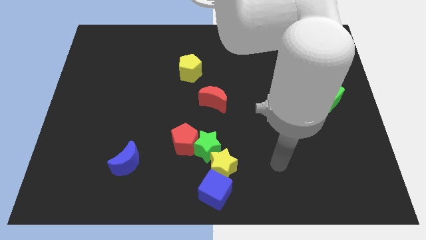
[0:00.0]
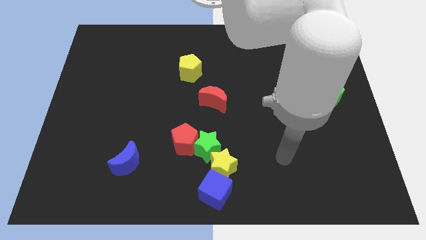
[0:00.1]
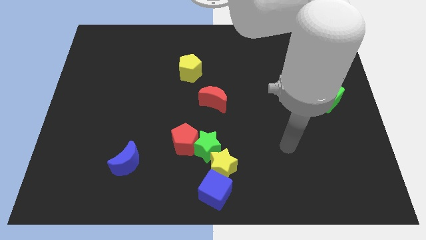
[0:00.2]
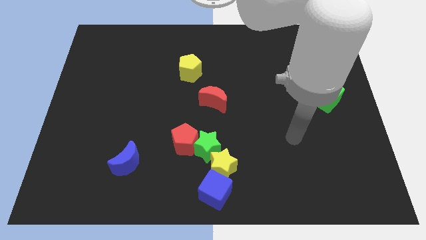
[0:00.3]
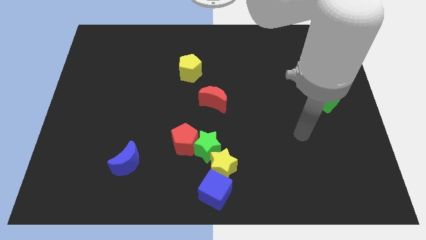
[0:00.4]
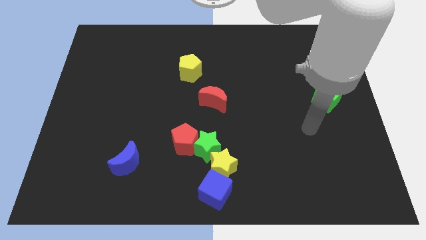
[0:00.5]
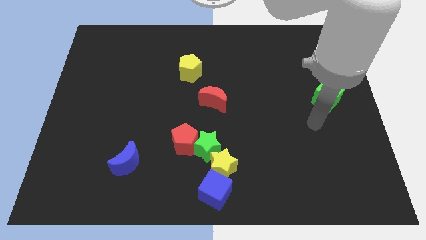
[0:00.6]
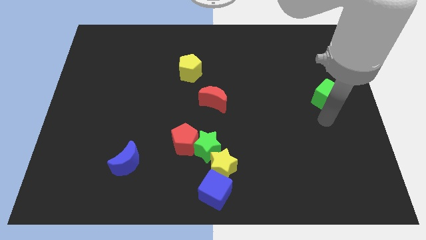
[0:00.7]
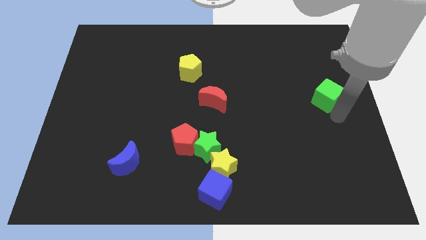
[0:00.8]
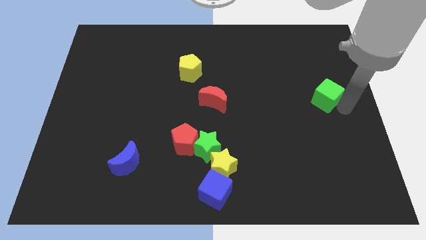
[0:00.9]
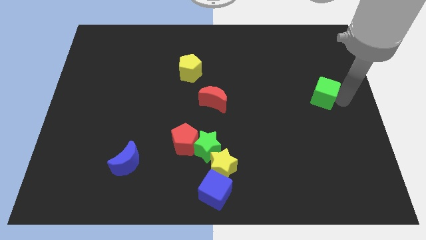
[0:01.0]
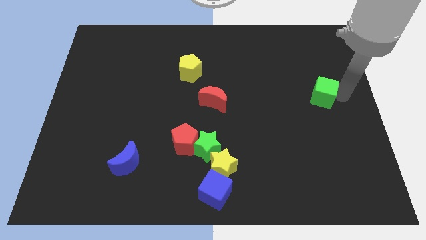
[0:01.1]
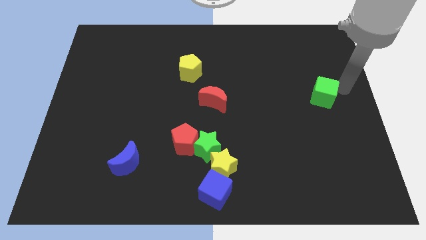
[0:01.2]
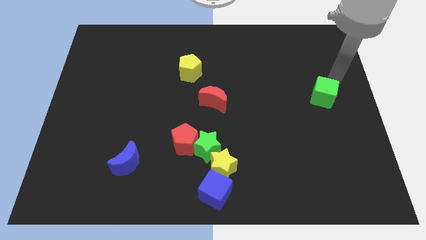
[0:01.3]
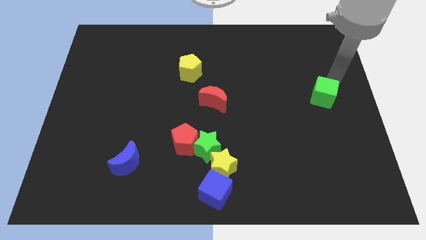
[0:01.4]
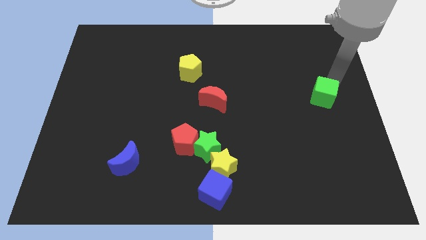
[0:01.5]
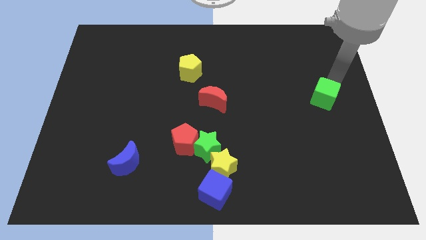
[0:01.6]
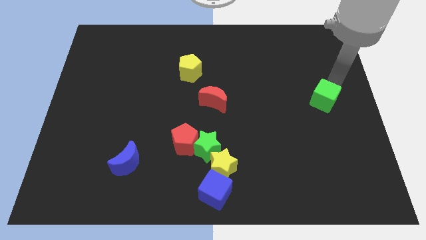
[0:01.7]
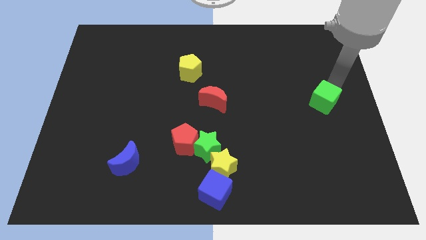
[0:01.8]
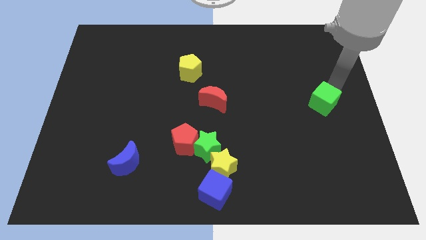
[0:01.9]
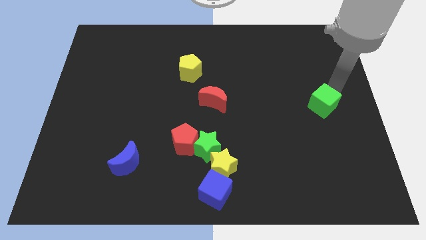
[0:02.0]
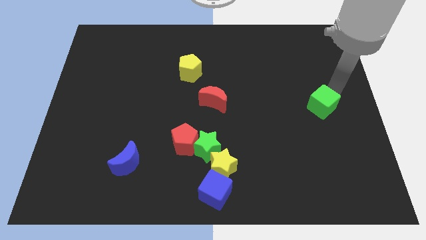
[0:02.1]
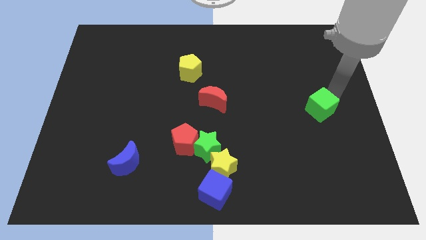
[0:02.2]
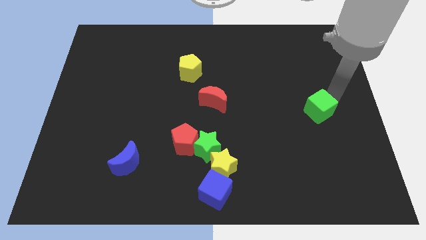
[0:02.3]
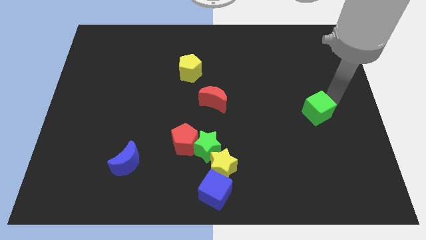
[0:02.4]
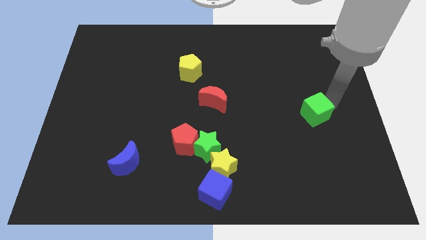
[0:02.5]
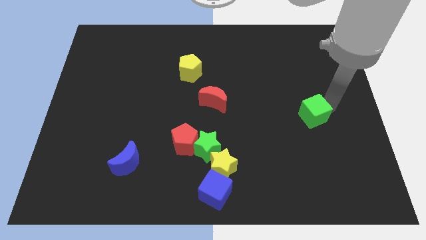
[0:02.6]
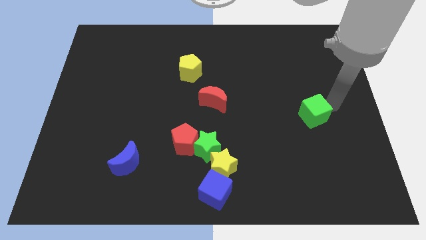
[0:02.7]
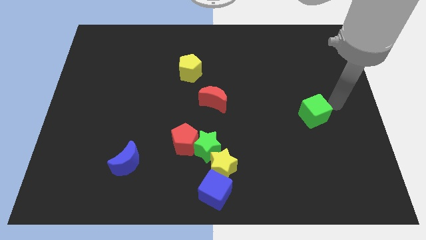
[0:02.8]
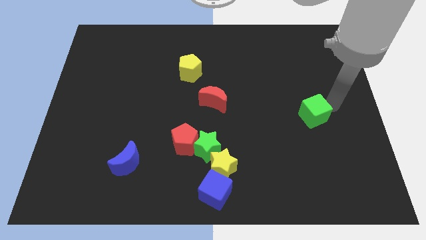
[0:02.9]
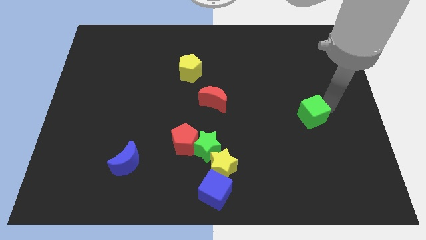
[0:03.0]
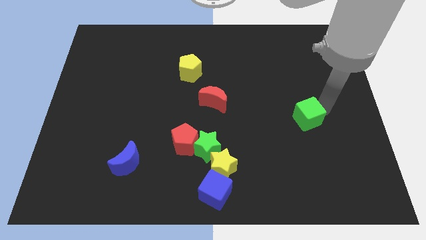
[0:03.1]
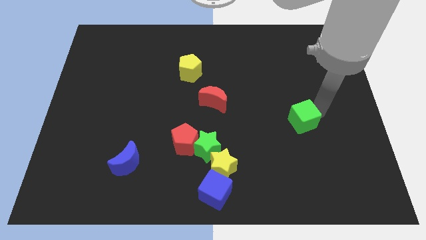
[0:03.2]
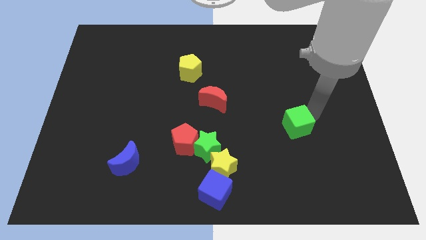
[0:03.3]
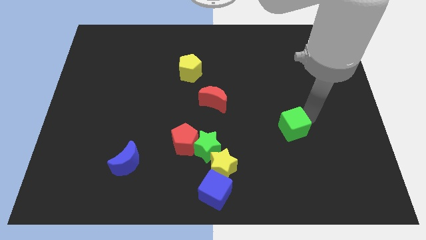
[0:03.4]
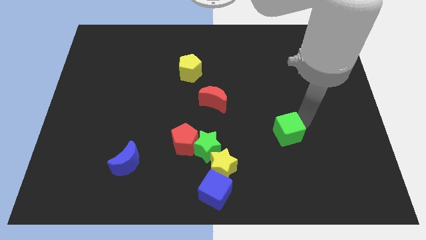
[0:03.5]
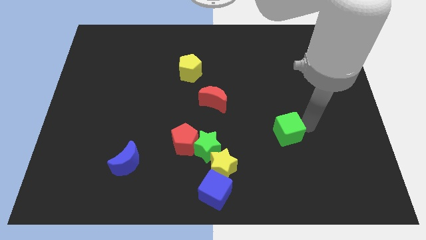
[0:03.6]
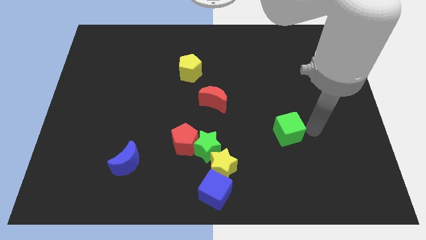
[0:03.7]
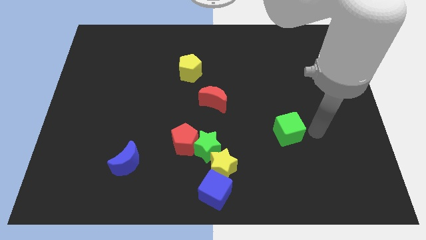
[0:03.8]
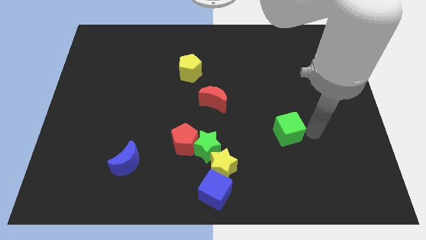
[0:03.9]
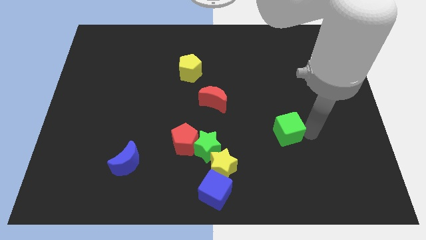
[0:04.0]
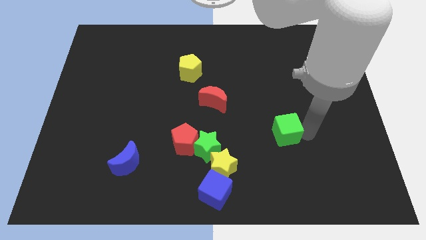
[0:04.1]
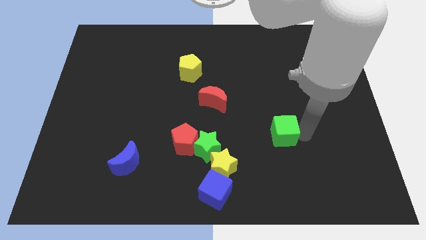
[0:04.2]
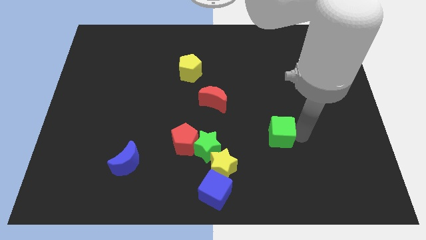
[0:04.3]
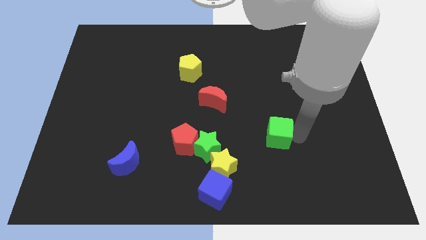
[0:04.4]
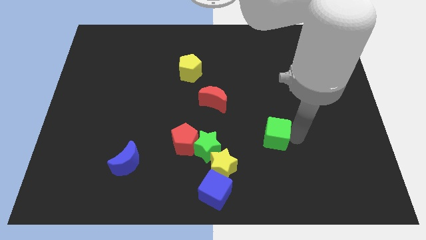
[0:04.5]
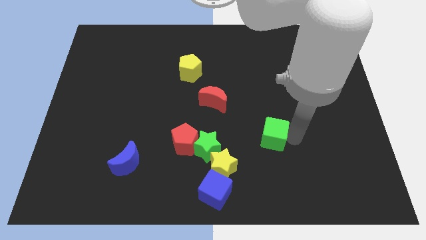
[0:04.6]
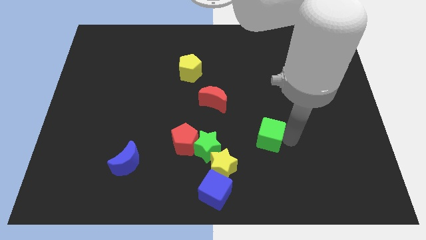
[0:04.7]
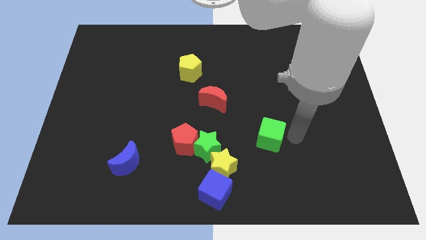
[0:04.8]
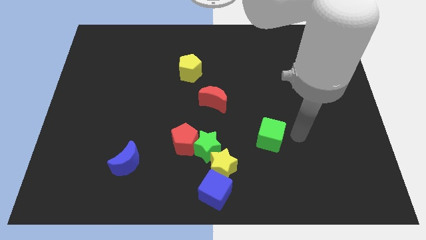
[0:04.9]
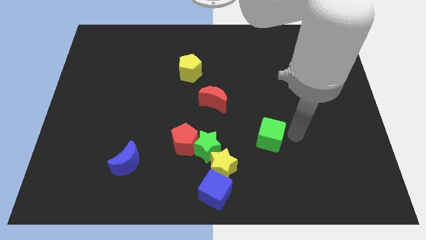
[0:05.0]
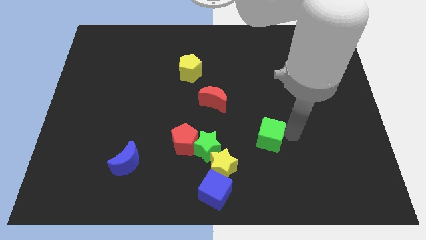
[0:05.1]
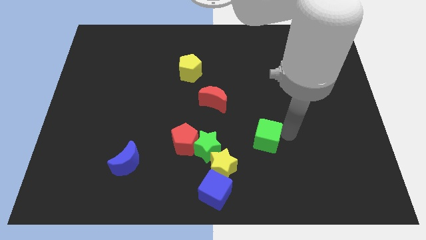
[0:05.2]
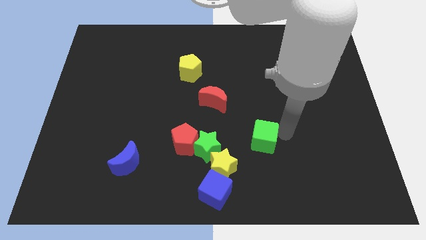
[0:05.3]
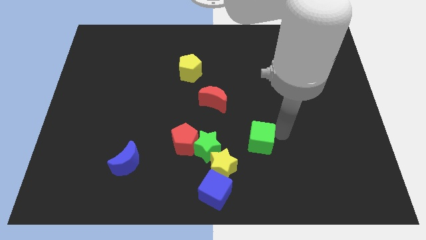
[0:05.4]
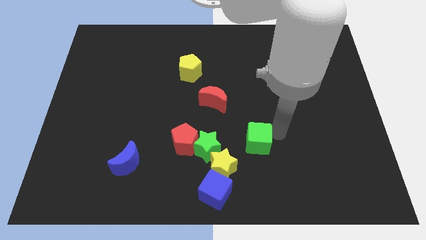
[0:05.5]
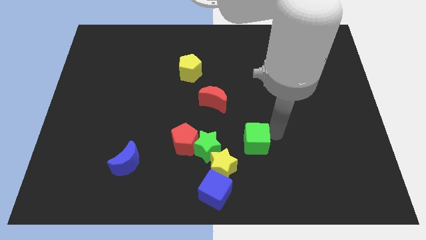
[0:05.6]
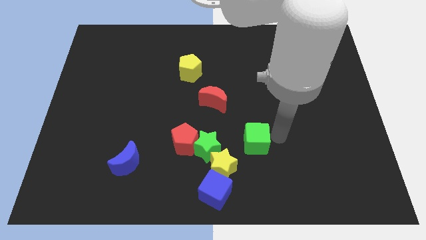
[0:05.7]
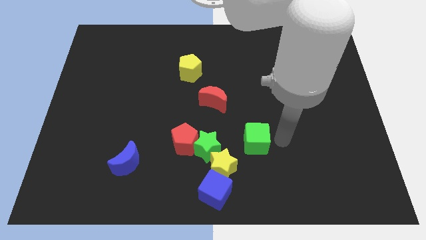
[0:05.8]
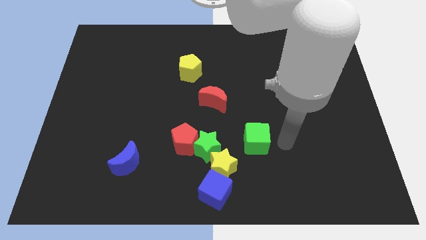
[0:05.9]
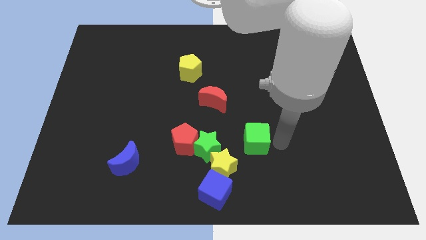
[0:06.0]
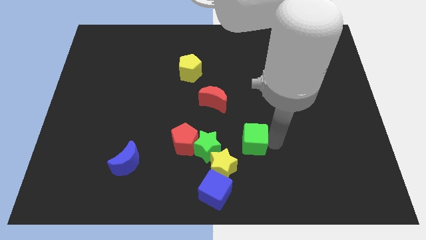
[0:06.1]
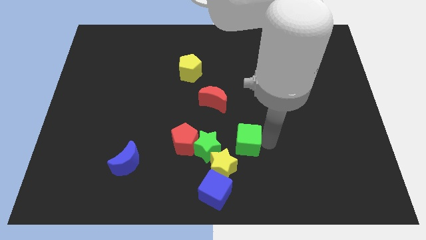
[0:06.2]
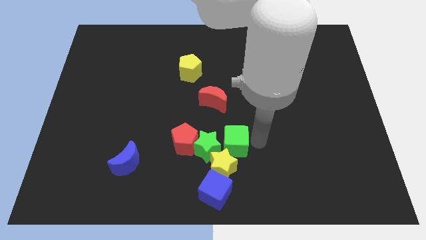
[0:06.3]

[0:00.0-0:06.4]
move the green cube next to the green star

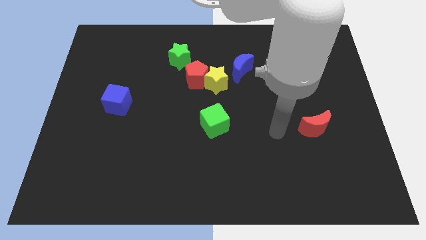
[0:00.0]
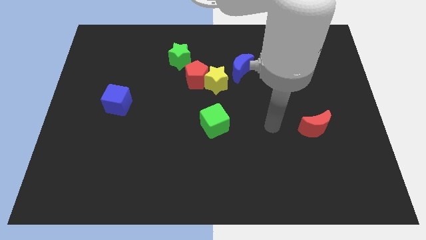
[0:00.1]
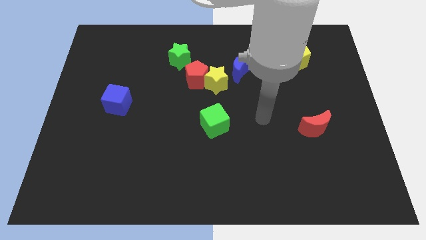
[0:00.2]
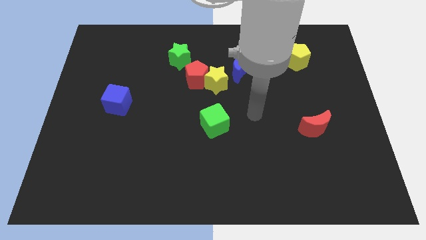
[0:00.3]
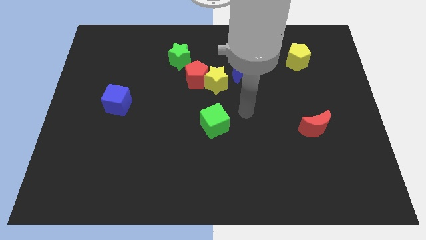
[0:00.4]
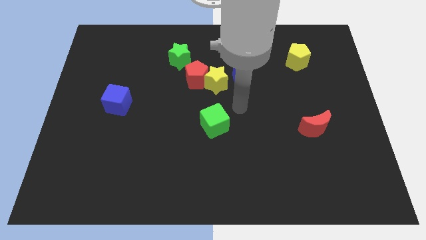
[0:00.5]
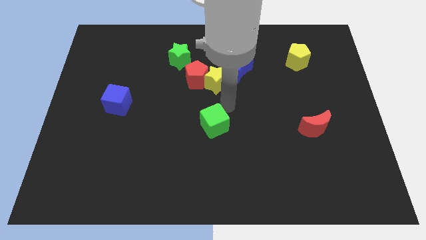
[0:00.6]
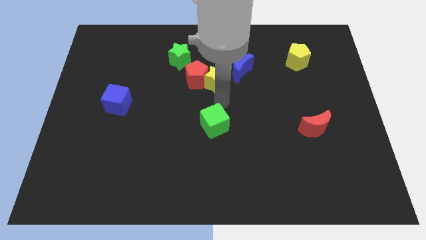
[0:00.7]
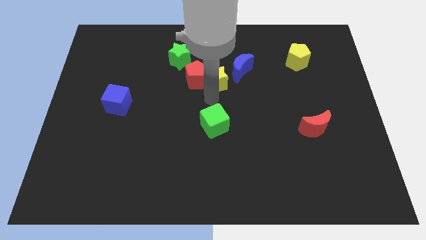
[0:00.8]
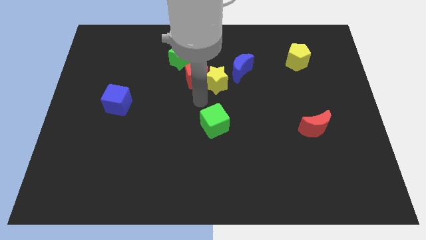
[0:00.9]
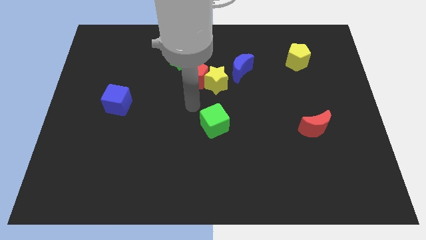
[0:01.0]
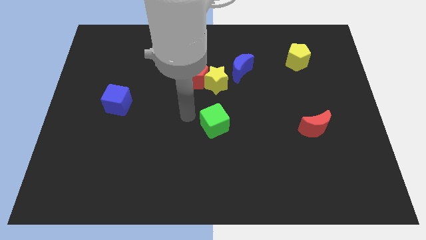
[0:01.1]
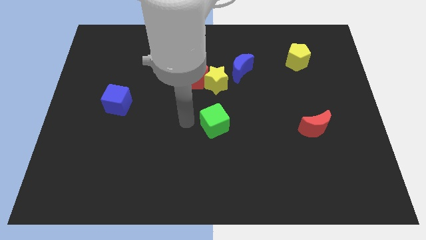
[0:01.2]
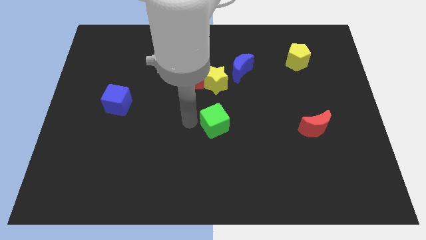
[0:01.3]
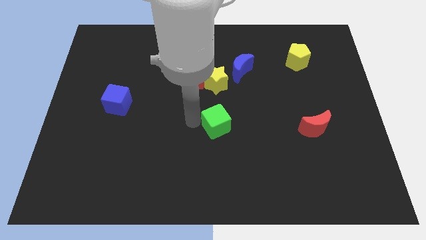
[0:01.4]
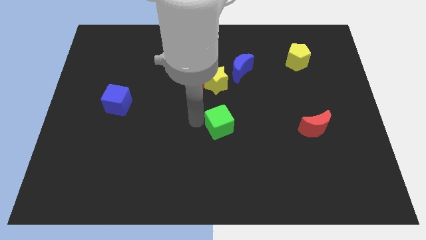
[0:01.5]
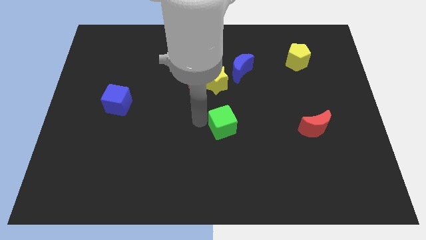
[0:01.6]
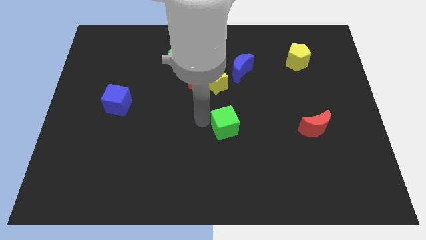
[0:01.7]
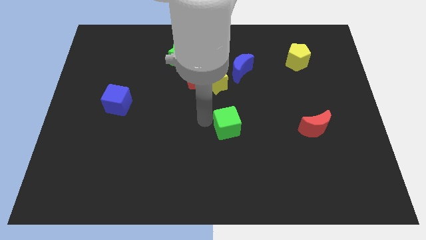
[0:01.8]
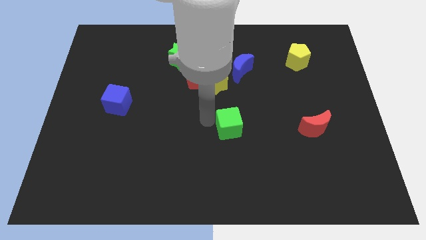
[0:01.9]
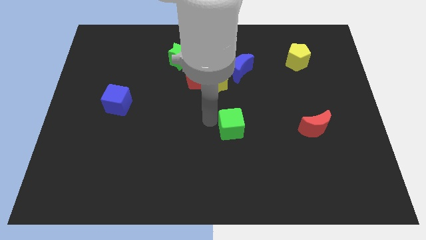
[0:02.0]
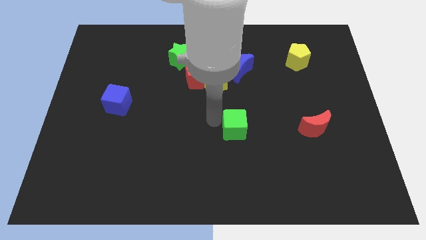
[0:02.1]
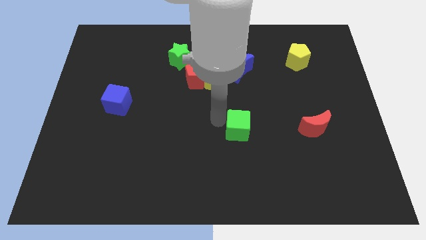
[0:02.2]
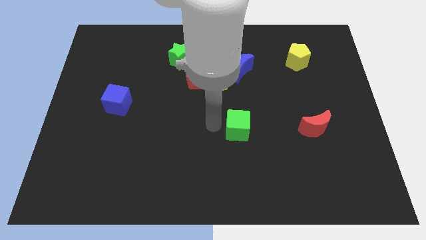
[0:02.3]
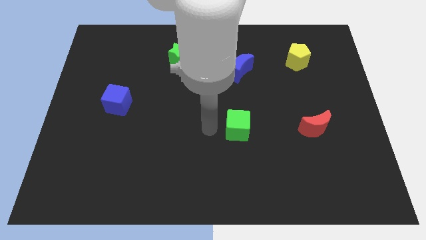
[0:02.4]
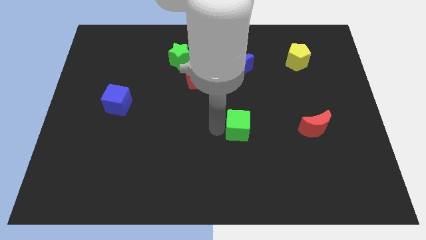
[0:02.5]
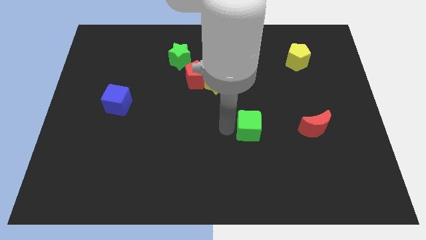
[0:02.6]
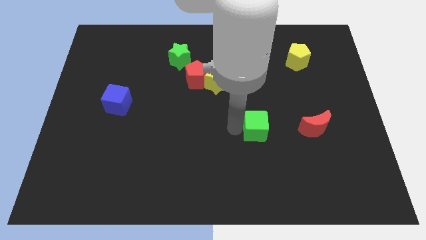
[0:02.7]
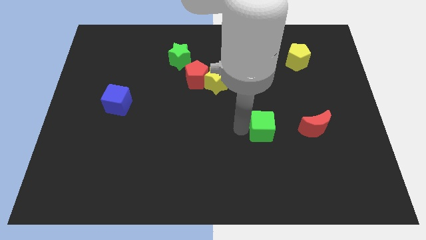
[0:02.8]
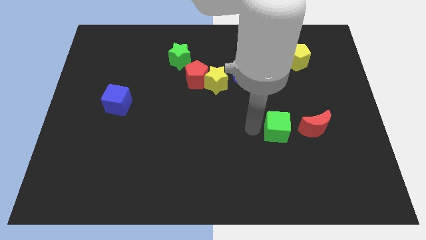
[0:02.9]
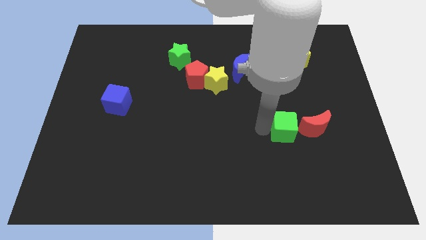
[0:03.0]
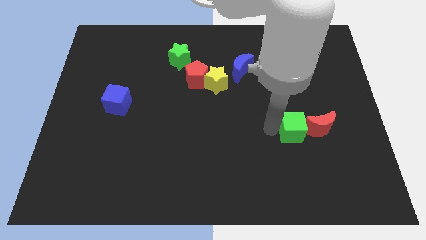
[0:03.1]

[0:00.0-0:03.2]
push the green cube towards the red moon
